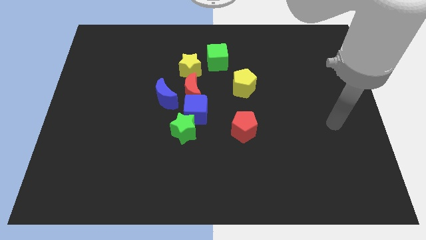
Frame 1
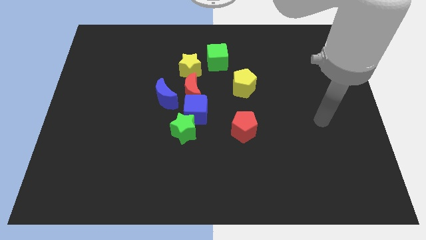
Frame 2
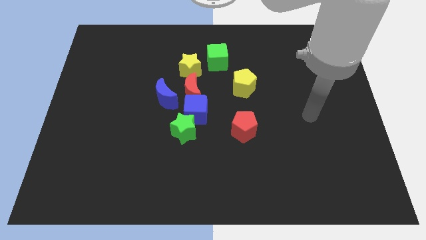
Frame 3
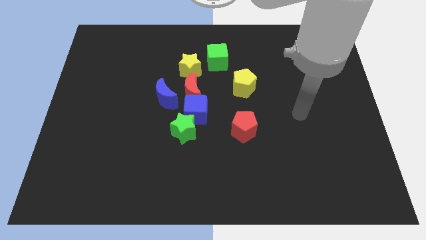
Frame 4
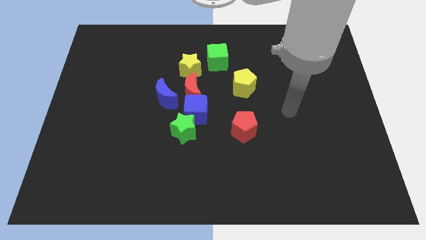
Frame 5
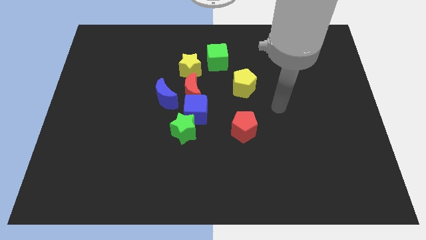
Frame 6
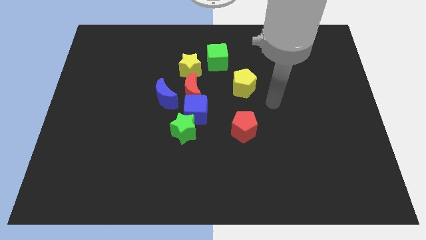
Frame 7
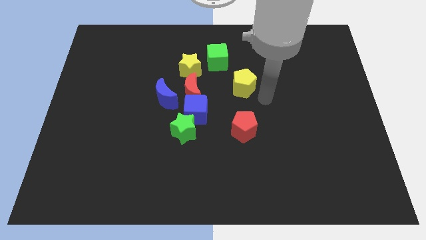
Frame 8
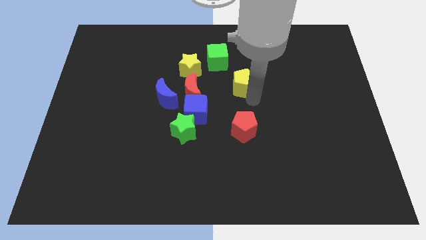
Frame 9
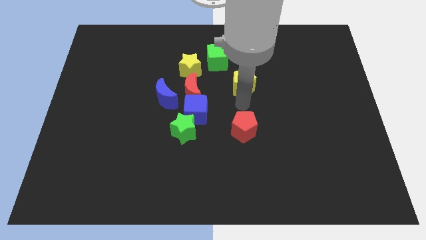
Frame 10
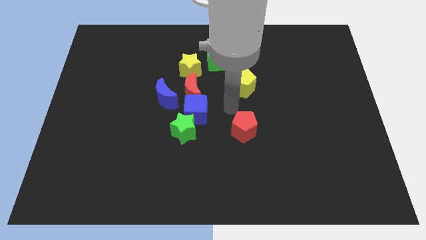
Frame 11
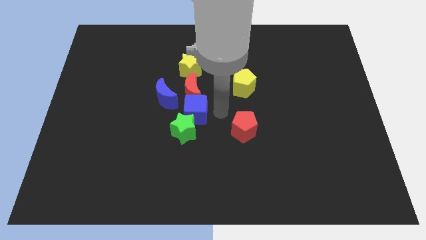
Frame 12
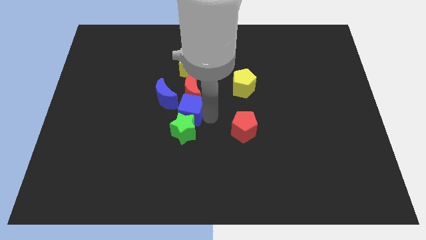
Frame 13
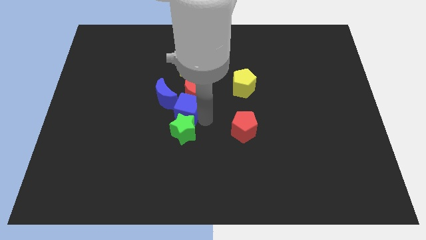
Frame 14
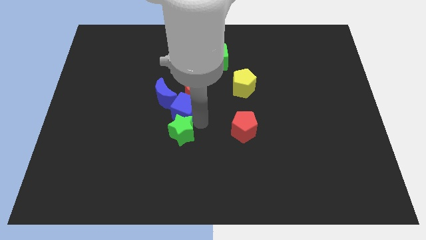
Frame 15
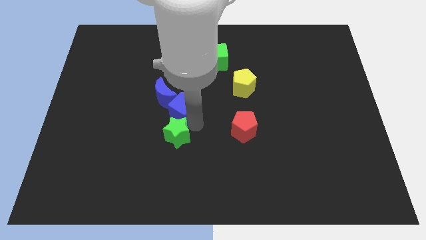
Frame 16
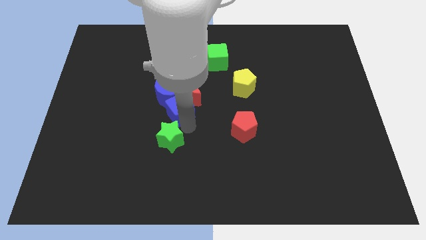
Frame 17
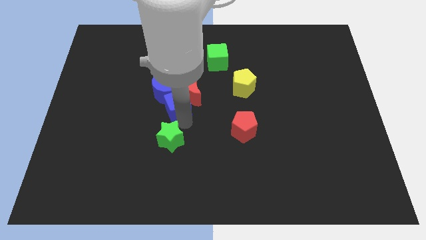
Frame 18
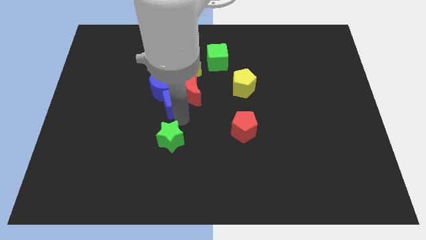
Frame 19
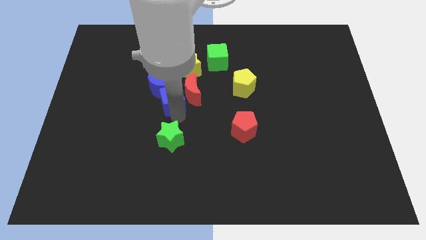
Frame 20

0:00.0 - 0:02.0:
separate the green star from the blue cube

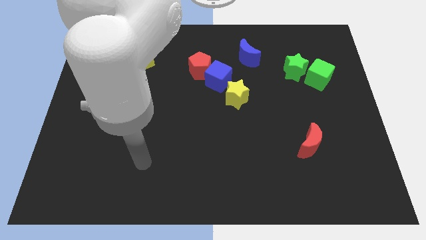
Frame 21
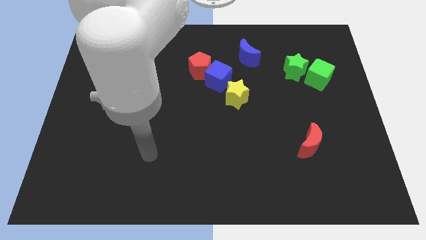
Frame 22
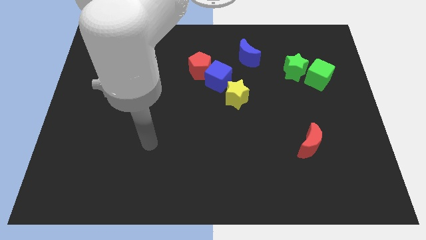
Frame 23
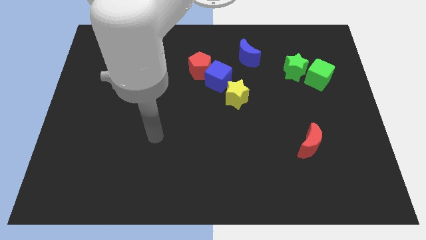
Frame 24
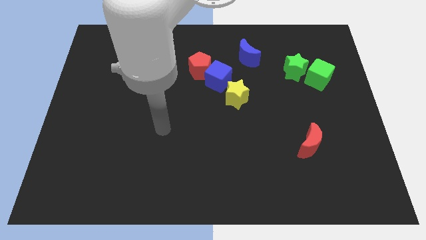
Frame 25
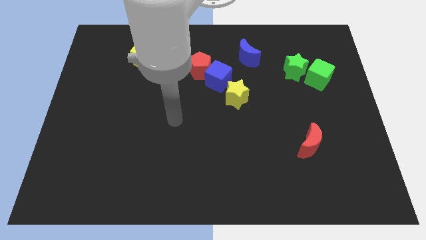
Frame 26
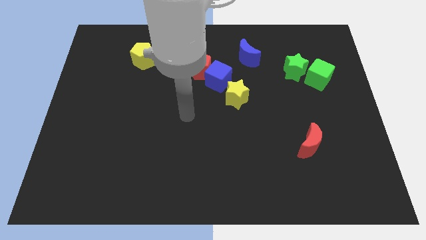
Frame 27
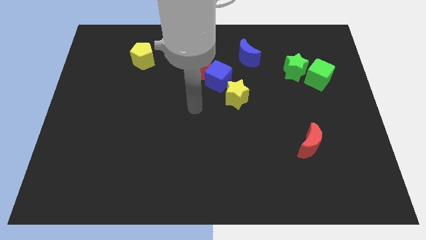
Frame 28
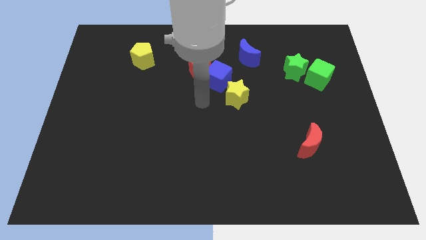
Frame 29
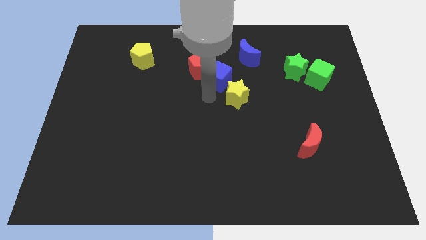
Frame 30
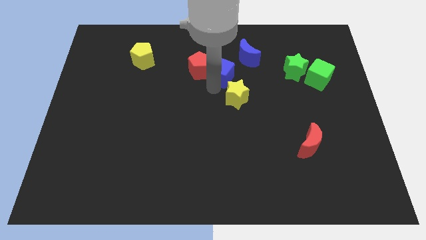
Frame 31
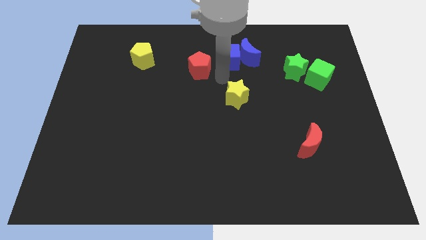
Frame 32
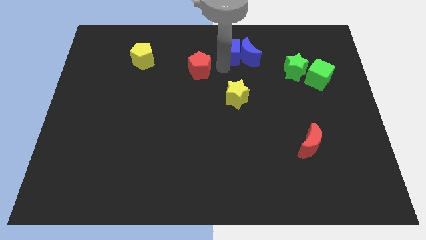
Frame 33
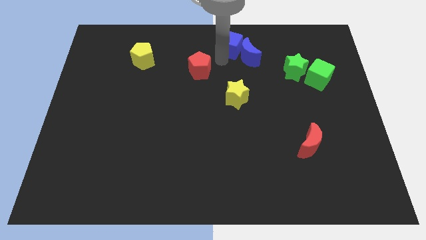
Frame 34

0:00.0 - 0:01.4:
move the red pentagon away from the blue cube

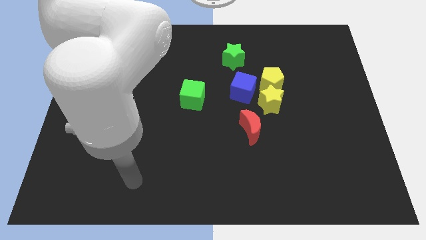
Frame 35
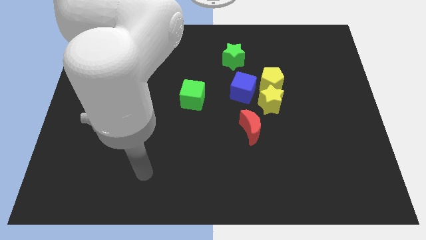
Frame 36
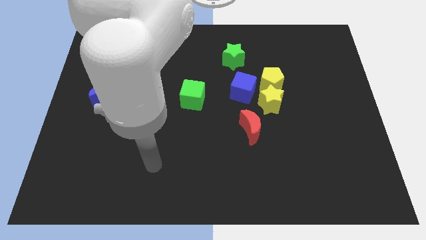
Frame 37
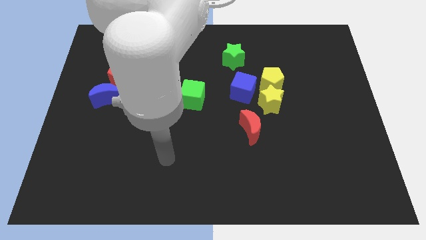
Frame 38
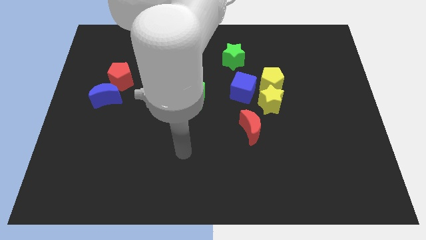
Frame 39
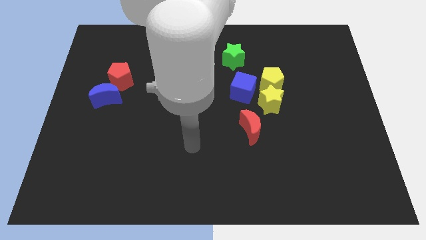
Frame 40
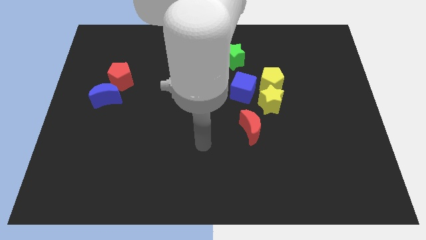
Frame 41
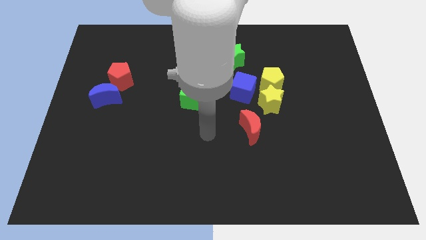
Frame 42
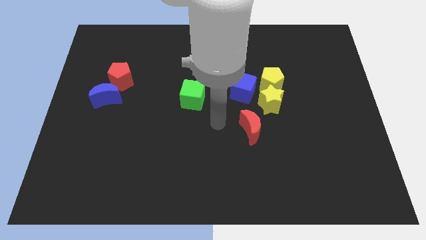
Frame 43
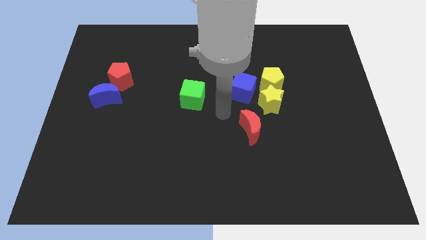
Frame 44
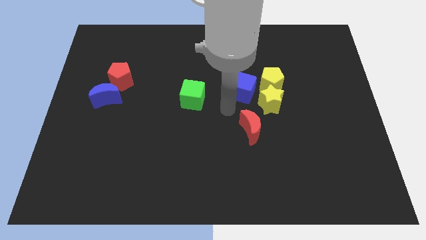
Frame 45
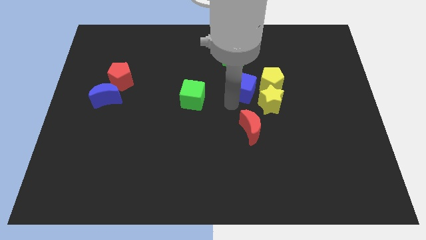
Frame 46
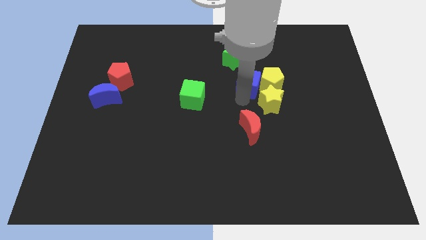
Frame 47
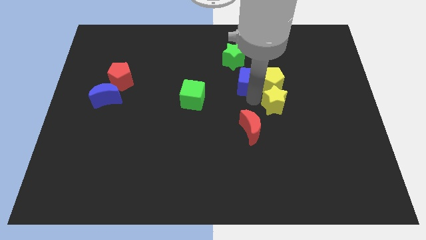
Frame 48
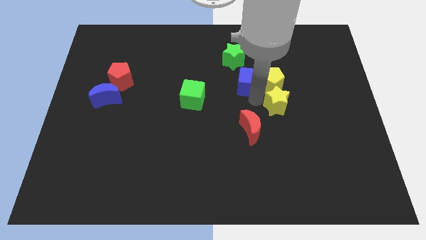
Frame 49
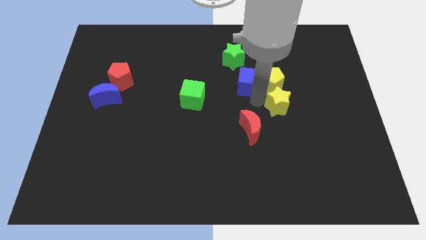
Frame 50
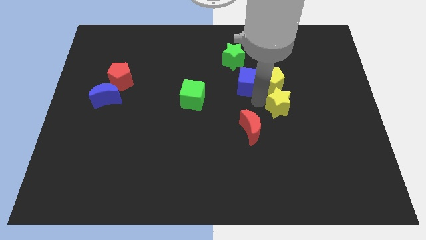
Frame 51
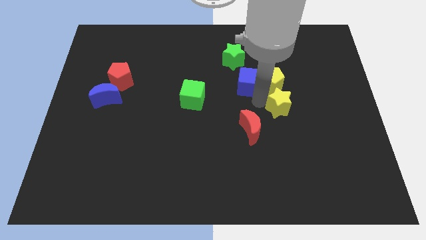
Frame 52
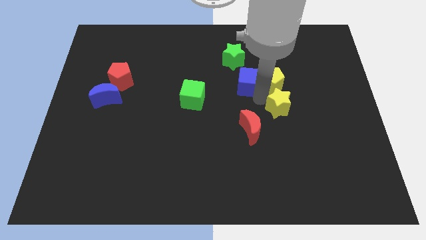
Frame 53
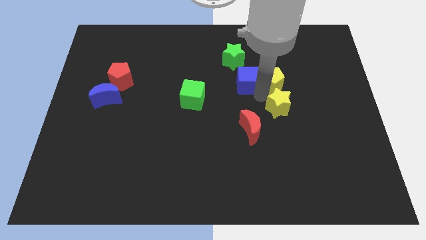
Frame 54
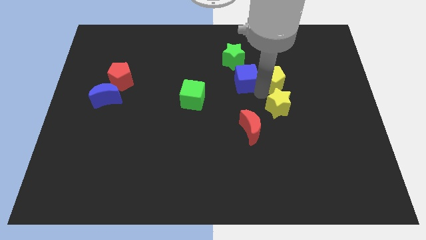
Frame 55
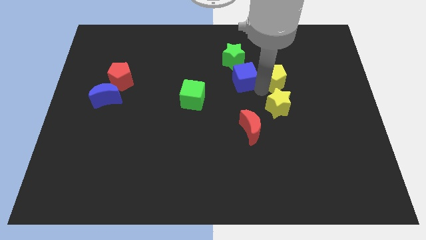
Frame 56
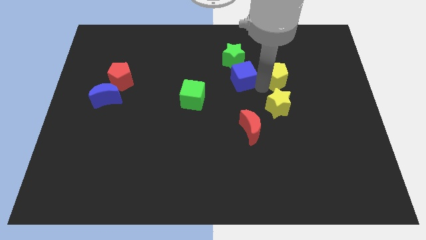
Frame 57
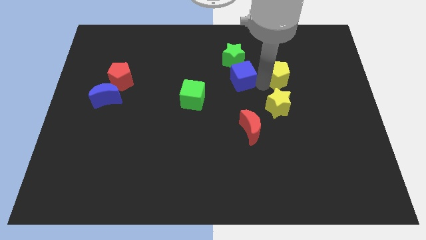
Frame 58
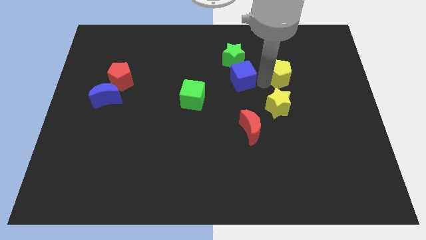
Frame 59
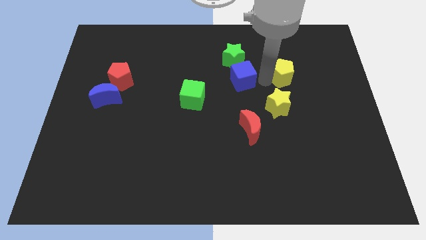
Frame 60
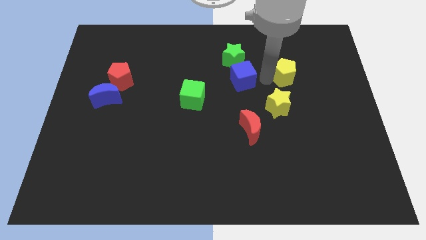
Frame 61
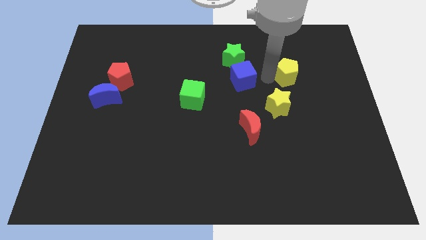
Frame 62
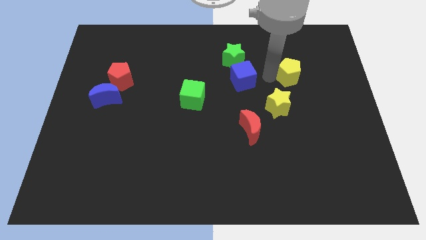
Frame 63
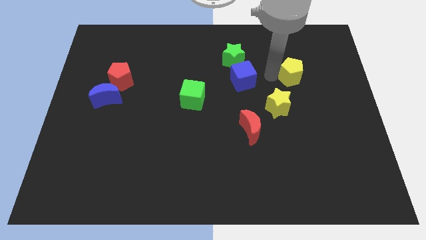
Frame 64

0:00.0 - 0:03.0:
pull the yellow pentagon apart from the yellow star and blue cube

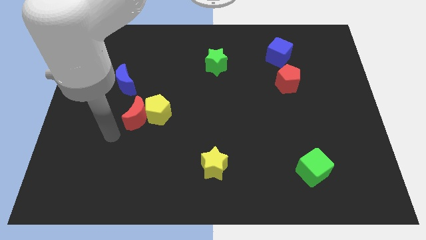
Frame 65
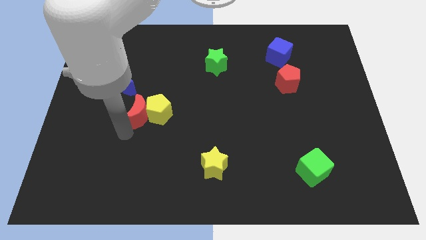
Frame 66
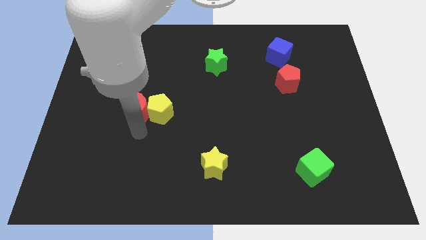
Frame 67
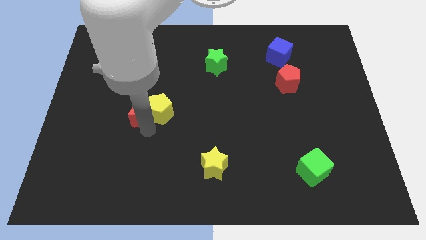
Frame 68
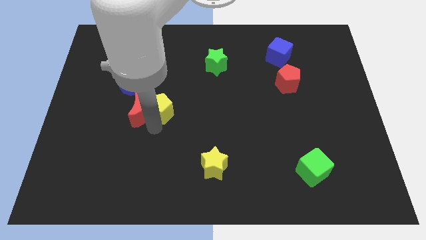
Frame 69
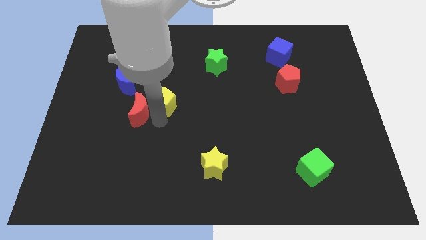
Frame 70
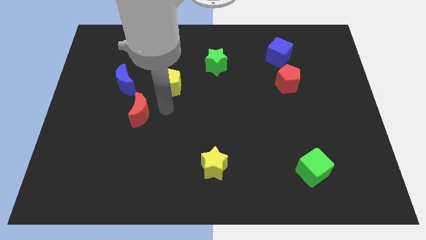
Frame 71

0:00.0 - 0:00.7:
separate the red moon from the yellow pentagon

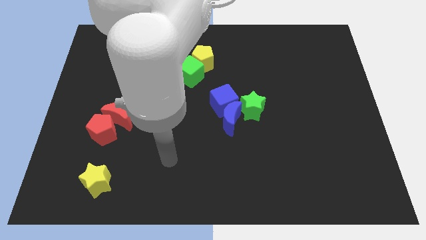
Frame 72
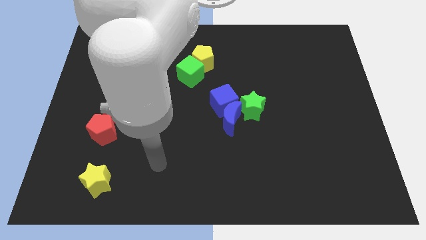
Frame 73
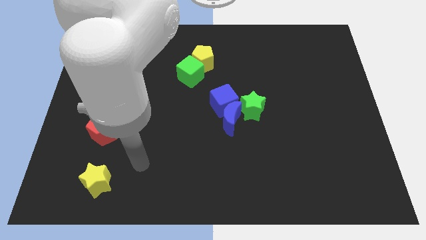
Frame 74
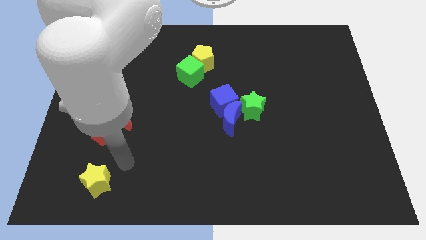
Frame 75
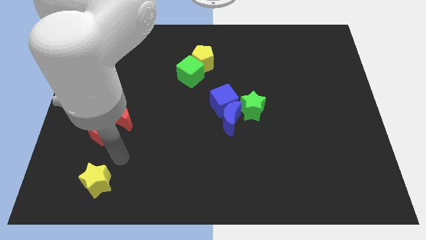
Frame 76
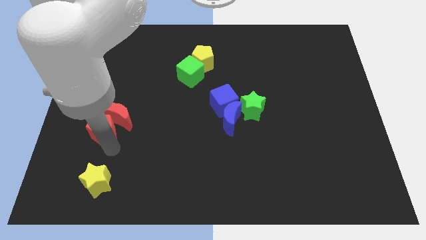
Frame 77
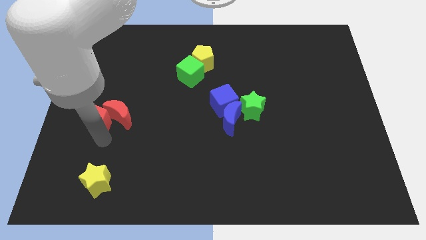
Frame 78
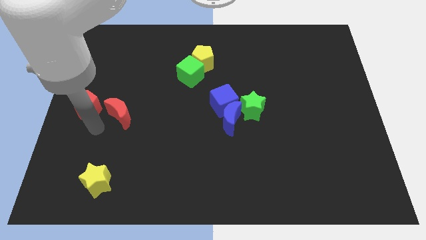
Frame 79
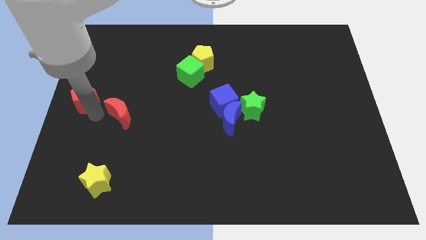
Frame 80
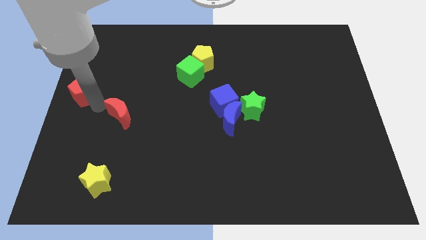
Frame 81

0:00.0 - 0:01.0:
separate the red moon from the red pentagon

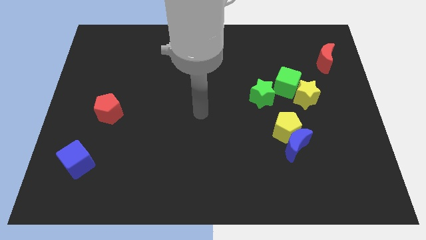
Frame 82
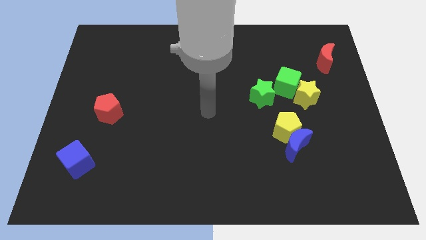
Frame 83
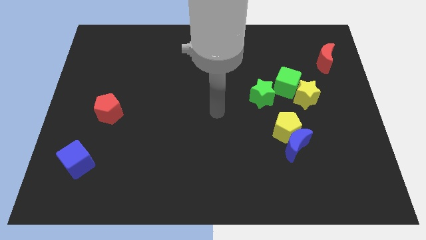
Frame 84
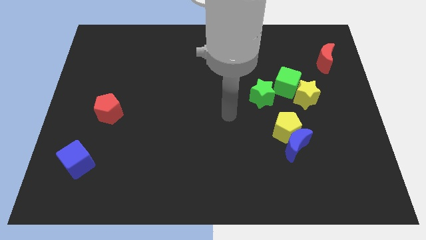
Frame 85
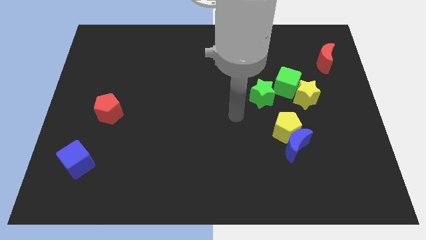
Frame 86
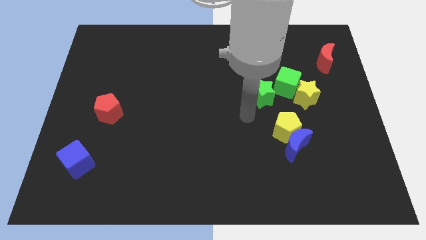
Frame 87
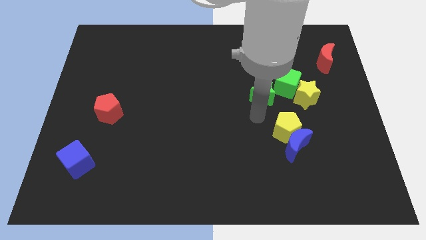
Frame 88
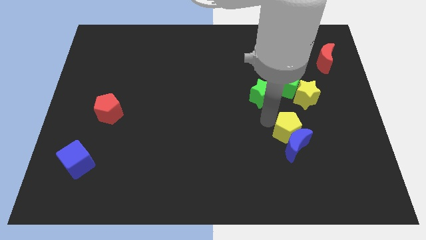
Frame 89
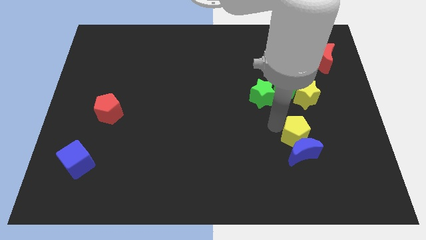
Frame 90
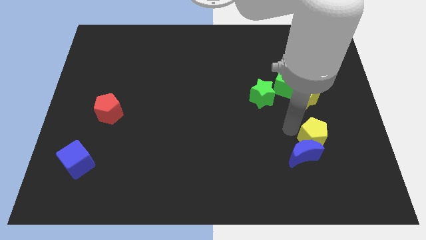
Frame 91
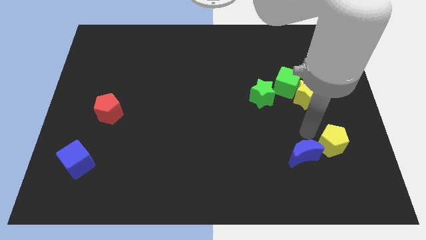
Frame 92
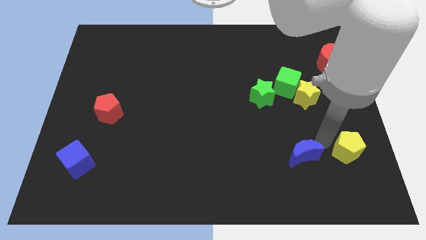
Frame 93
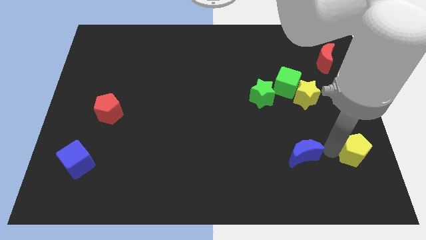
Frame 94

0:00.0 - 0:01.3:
move the blue moon away from the yellow pentagon
